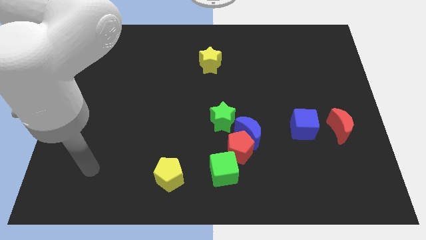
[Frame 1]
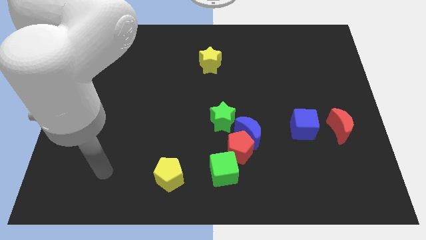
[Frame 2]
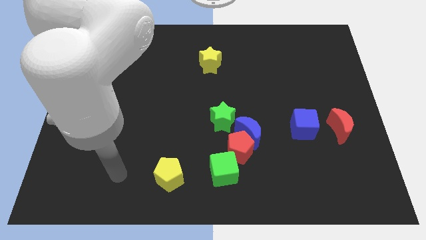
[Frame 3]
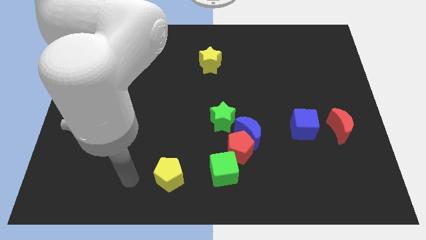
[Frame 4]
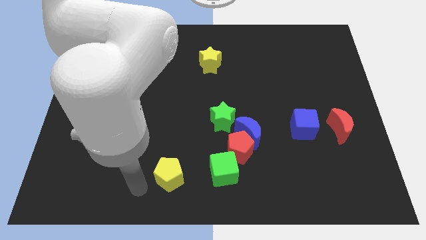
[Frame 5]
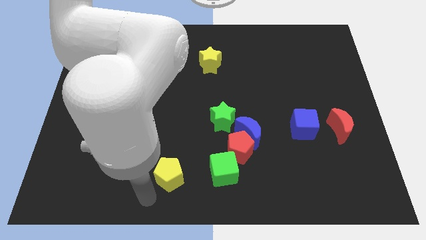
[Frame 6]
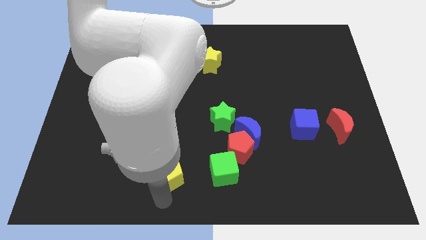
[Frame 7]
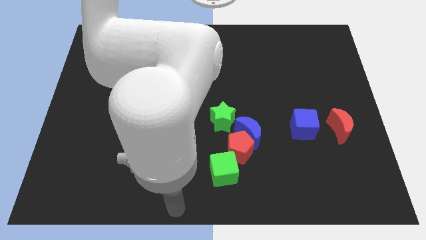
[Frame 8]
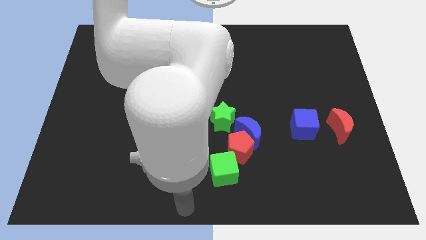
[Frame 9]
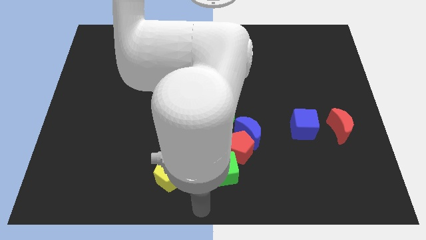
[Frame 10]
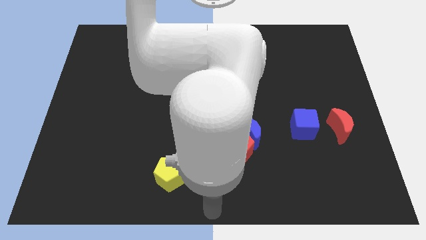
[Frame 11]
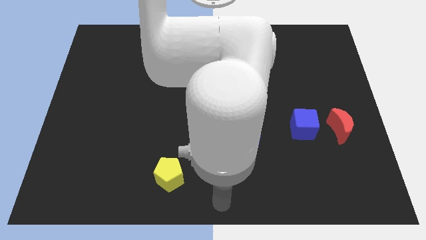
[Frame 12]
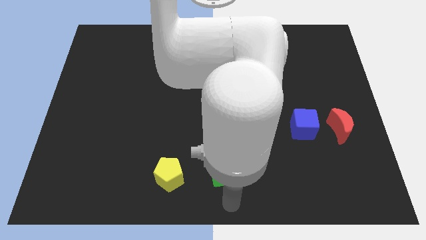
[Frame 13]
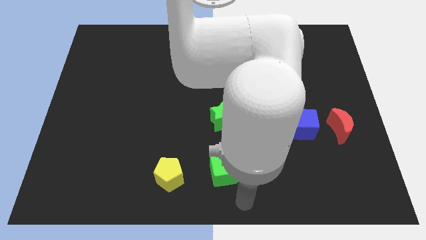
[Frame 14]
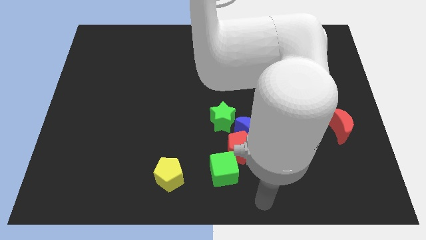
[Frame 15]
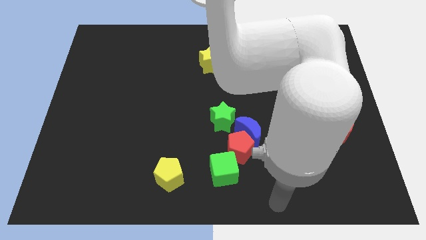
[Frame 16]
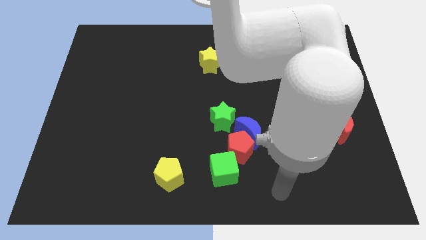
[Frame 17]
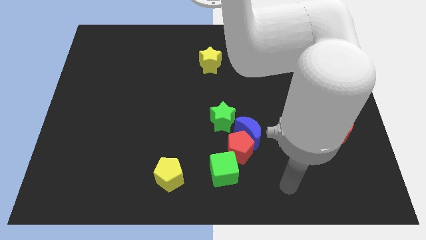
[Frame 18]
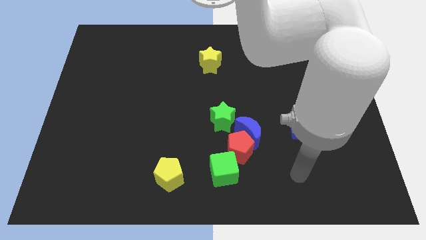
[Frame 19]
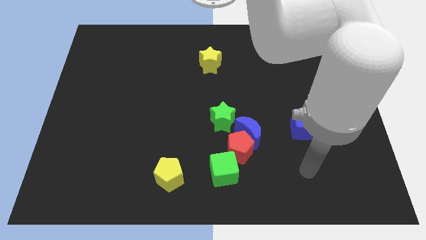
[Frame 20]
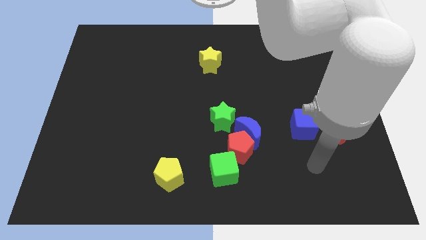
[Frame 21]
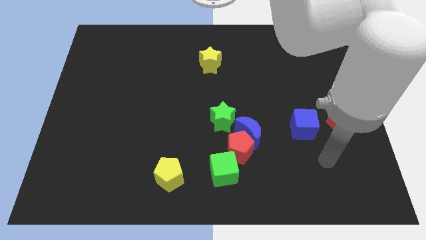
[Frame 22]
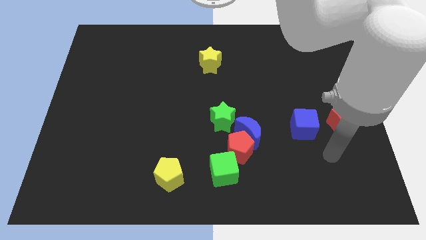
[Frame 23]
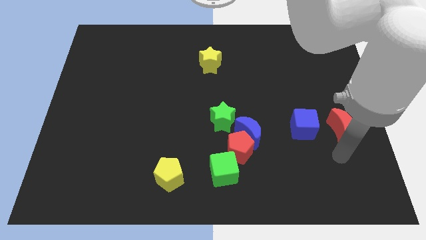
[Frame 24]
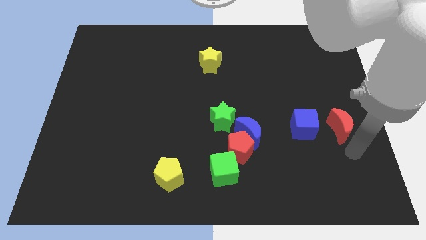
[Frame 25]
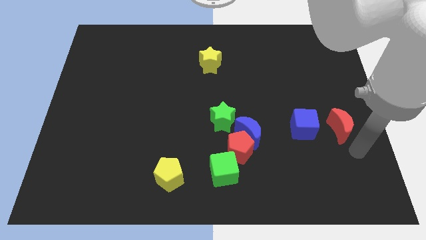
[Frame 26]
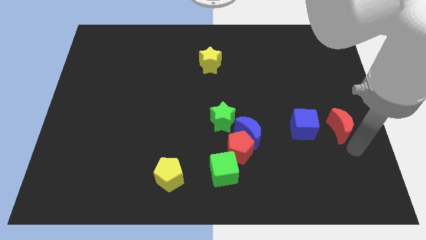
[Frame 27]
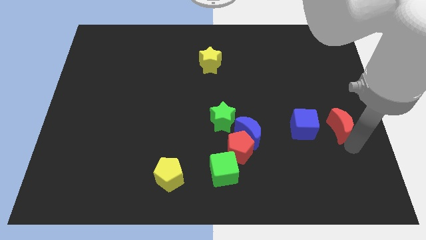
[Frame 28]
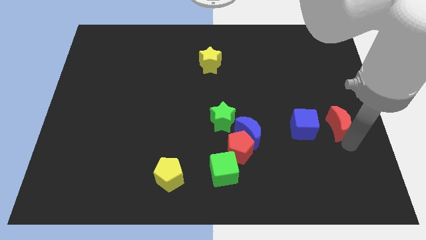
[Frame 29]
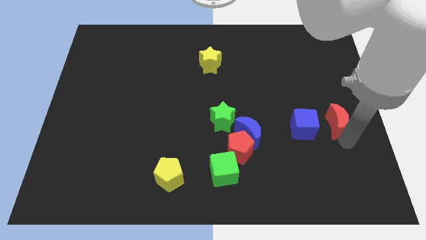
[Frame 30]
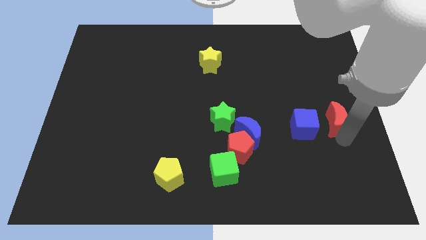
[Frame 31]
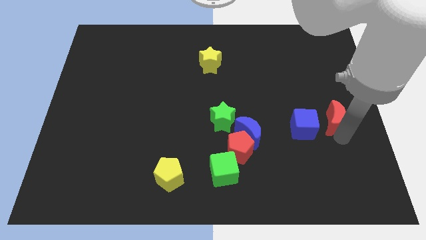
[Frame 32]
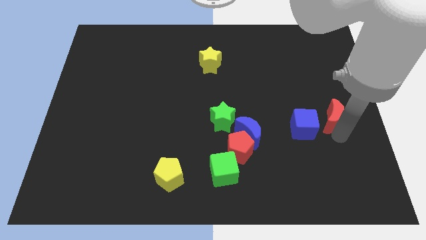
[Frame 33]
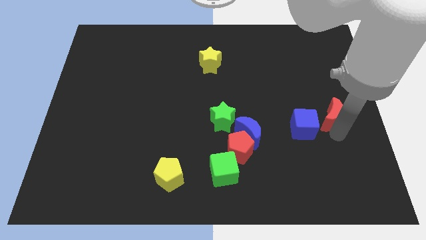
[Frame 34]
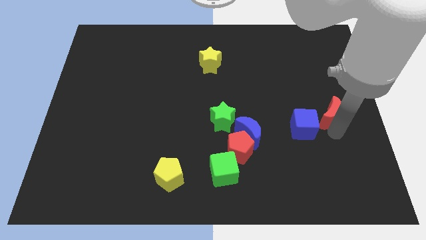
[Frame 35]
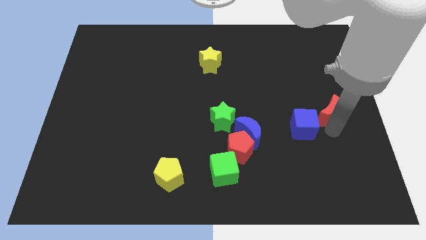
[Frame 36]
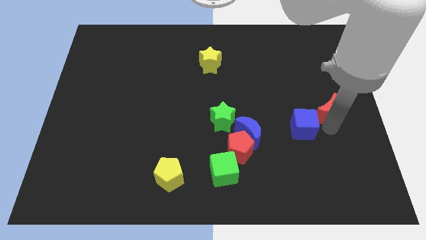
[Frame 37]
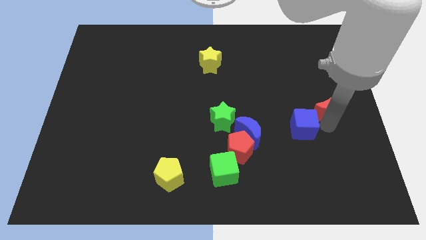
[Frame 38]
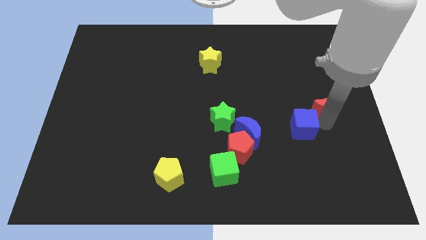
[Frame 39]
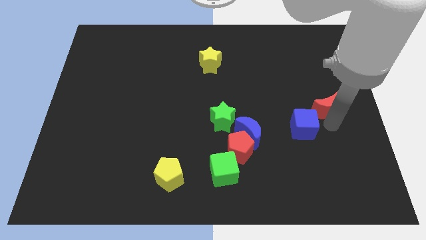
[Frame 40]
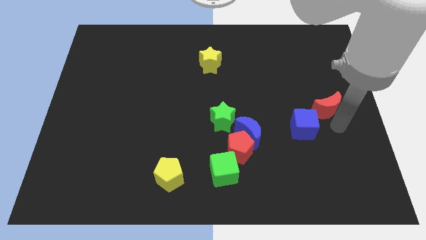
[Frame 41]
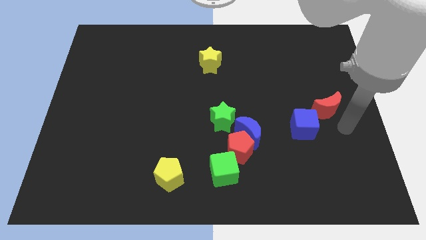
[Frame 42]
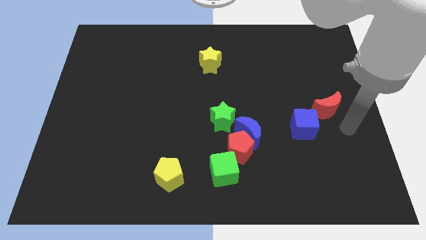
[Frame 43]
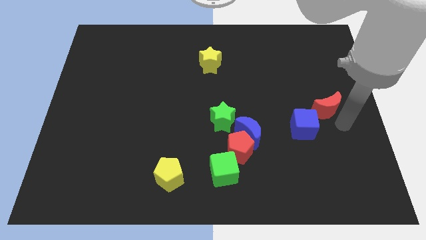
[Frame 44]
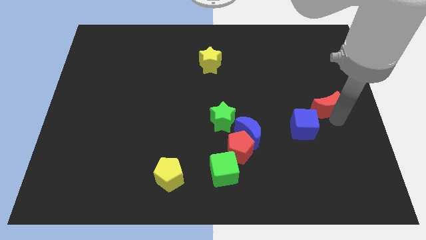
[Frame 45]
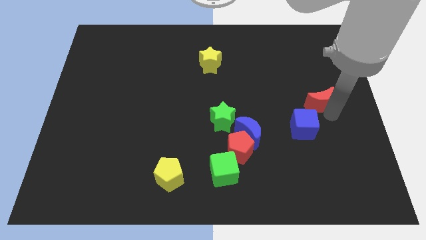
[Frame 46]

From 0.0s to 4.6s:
move the red moon upwards and left diagonally slightly

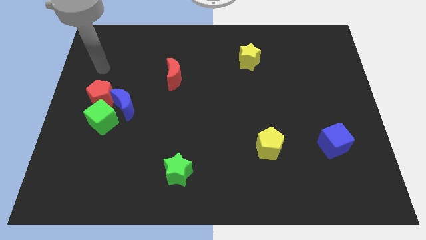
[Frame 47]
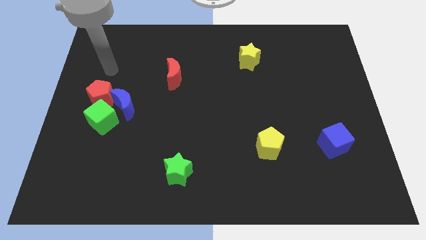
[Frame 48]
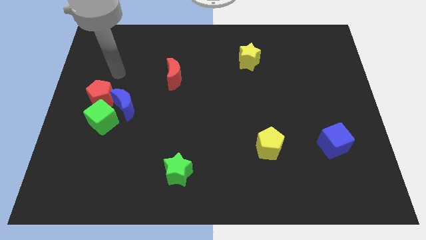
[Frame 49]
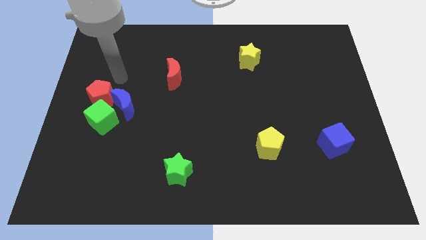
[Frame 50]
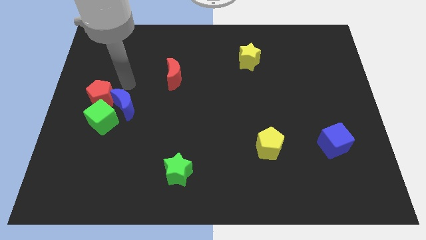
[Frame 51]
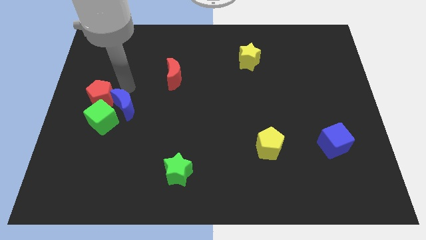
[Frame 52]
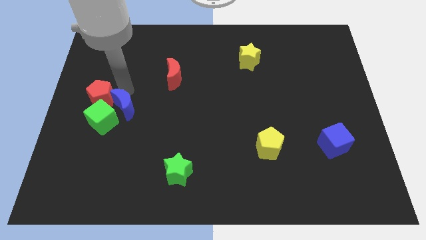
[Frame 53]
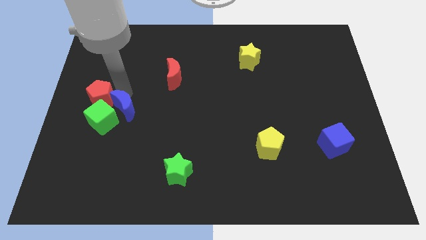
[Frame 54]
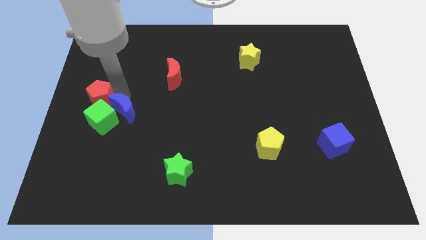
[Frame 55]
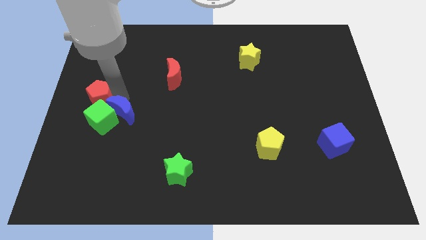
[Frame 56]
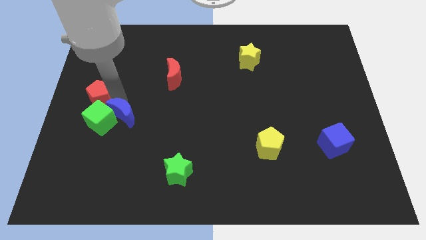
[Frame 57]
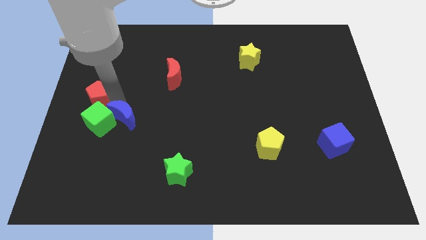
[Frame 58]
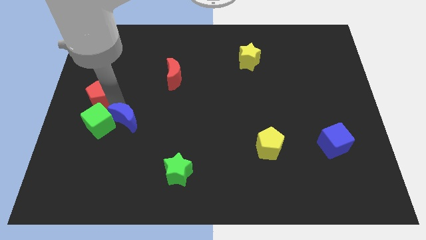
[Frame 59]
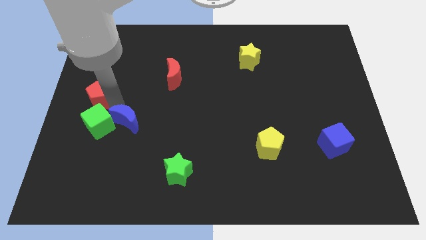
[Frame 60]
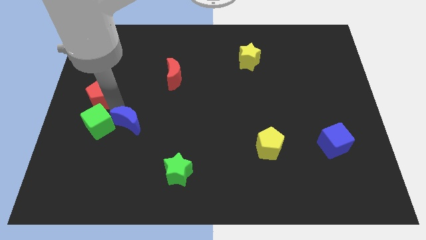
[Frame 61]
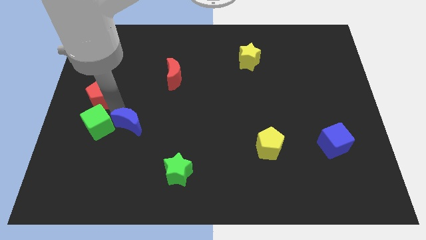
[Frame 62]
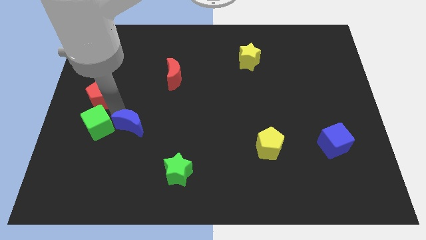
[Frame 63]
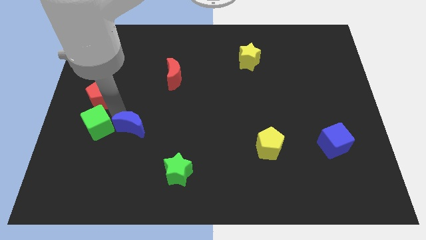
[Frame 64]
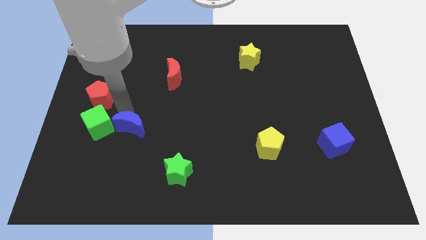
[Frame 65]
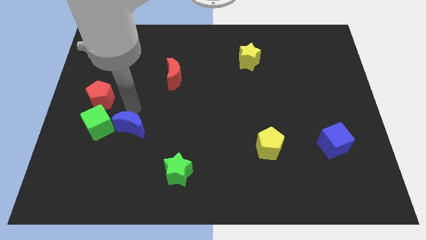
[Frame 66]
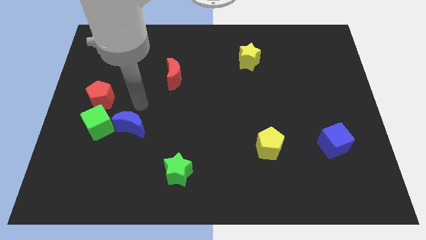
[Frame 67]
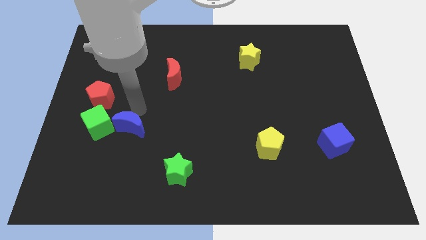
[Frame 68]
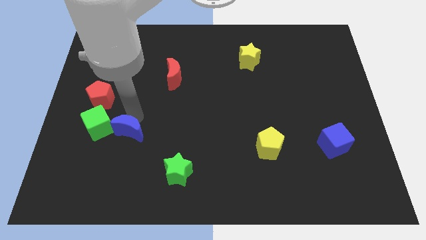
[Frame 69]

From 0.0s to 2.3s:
slide the blue moon down a bit

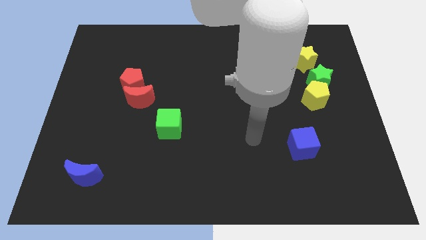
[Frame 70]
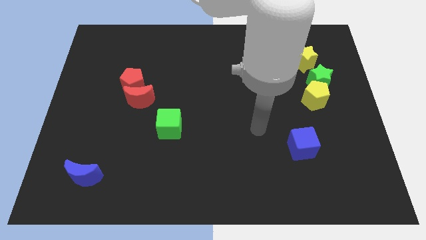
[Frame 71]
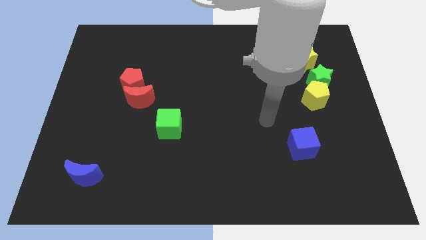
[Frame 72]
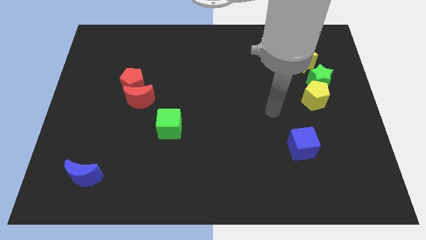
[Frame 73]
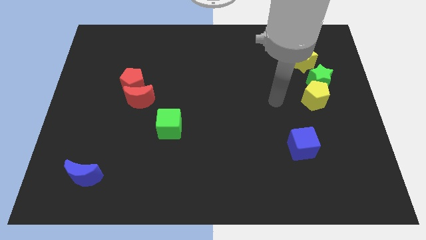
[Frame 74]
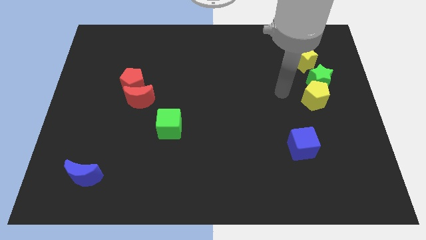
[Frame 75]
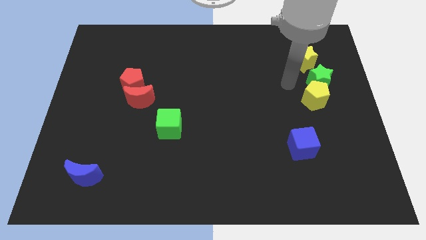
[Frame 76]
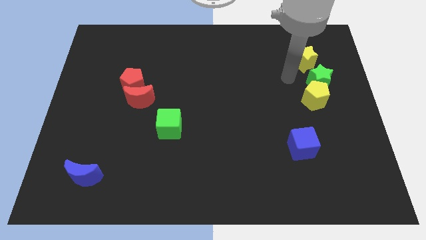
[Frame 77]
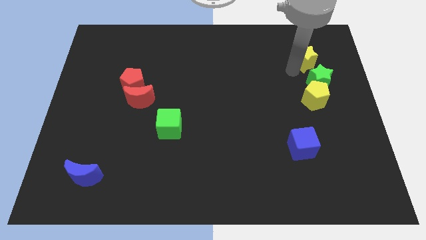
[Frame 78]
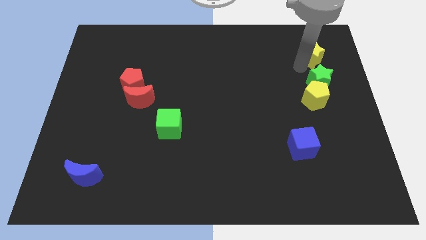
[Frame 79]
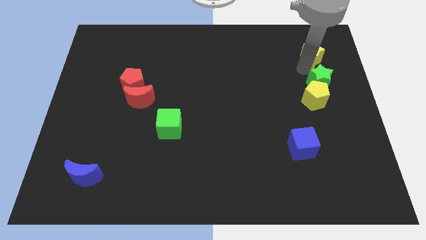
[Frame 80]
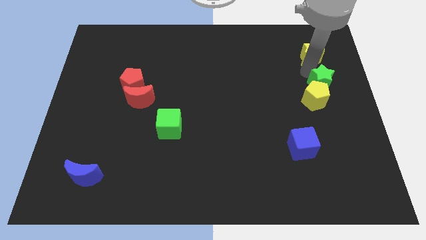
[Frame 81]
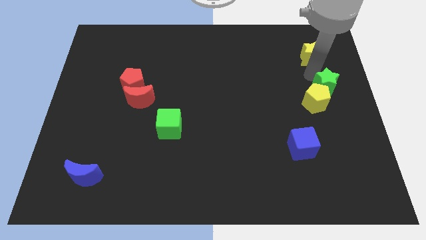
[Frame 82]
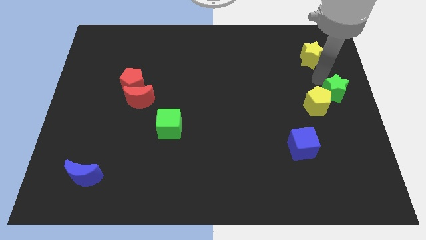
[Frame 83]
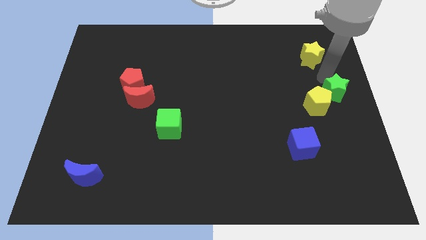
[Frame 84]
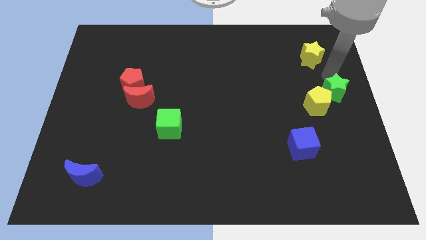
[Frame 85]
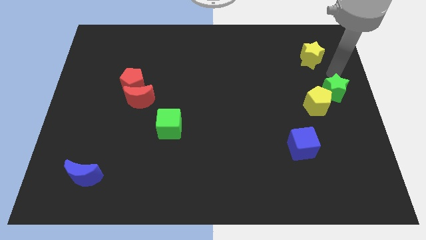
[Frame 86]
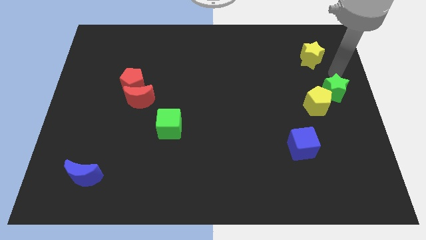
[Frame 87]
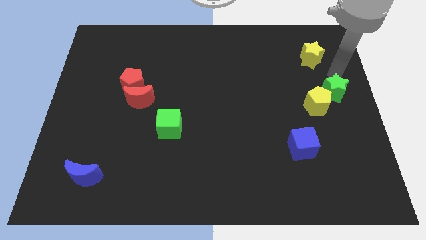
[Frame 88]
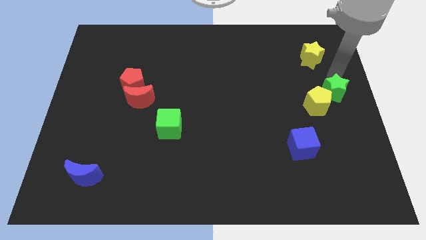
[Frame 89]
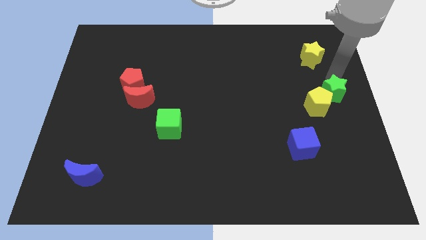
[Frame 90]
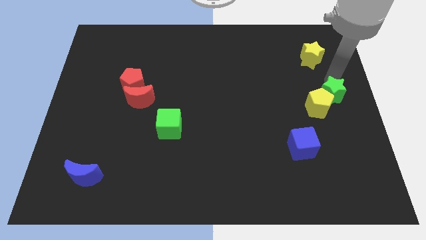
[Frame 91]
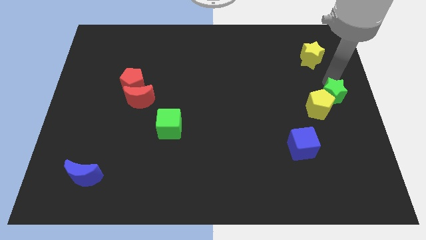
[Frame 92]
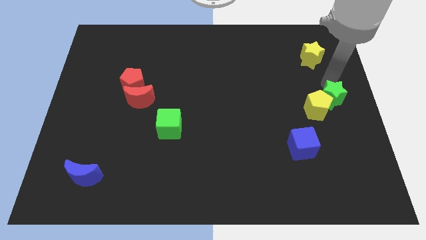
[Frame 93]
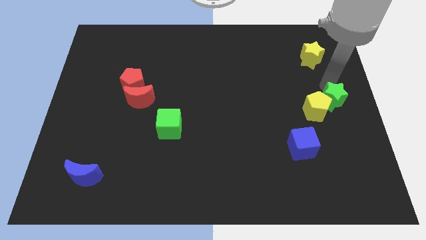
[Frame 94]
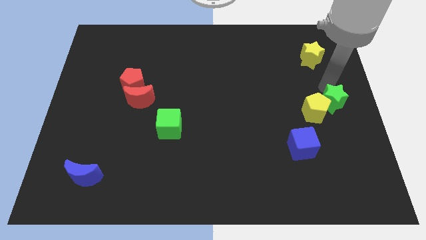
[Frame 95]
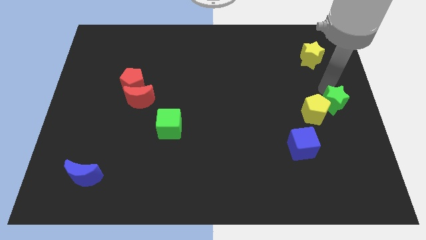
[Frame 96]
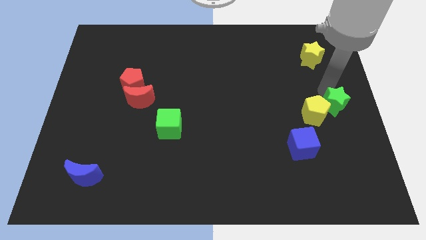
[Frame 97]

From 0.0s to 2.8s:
push the green star a little down
